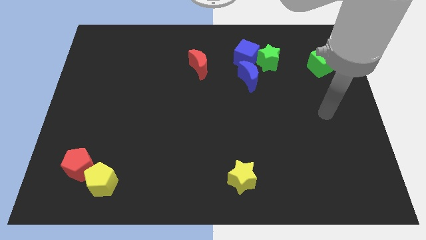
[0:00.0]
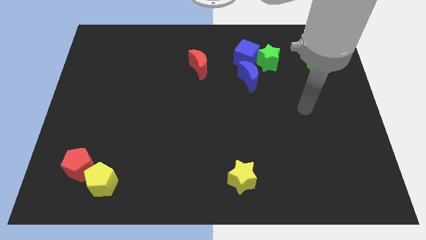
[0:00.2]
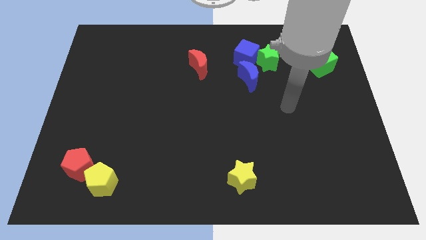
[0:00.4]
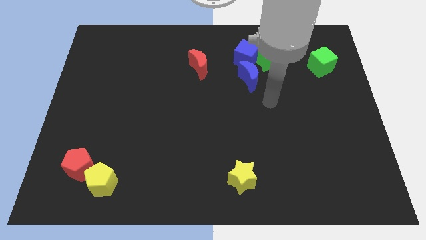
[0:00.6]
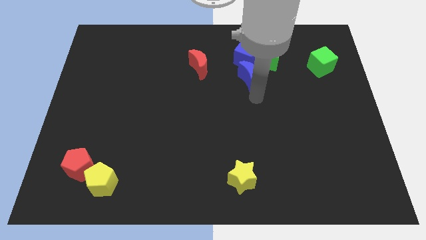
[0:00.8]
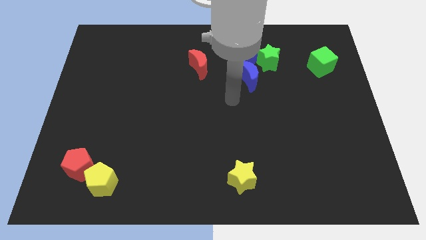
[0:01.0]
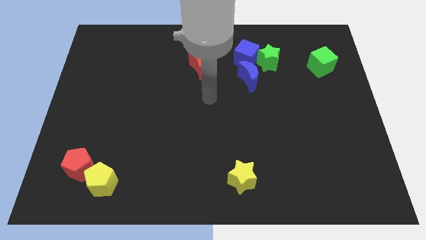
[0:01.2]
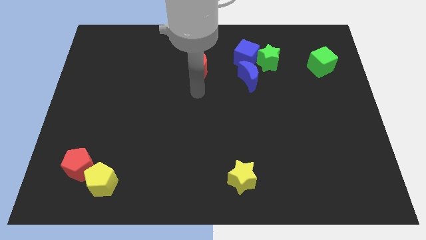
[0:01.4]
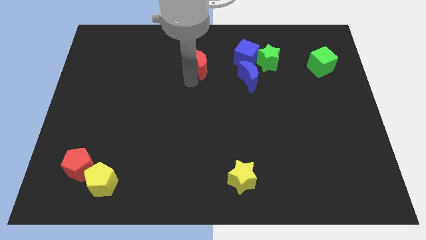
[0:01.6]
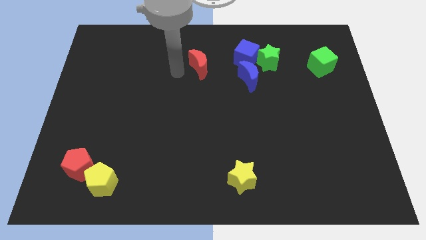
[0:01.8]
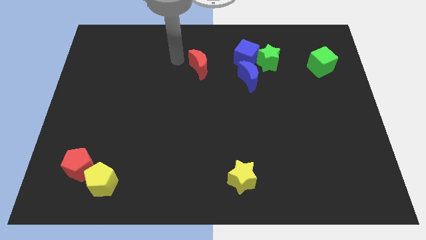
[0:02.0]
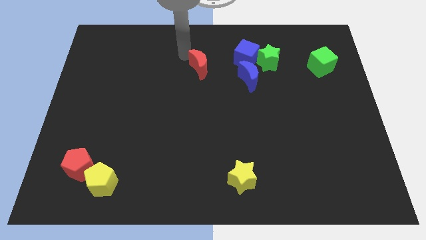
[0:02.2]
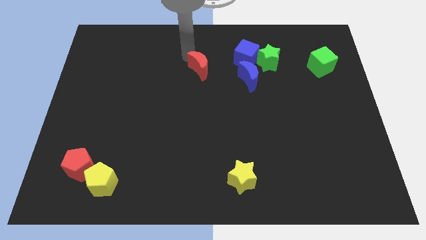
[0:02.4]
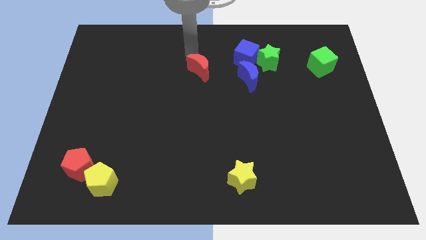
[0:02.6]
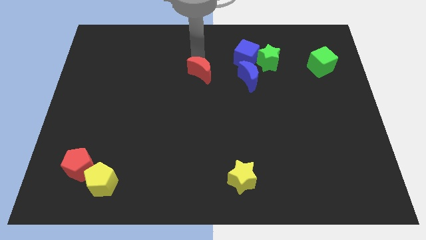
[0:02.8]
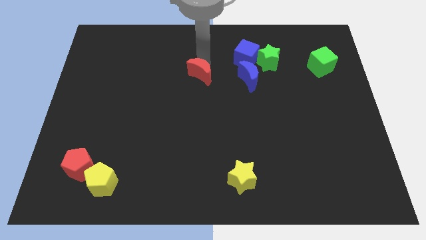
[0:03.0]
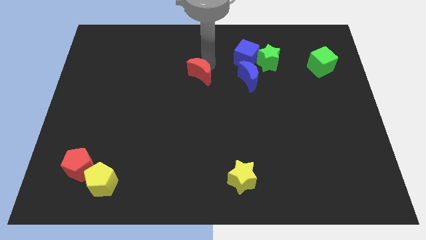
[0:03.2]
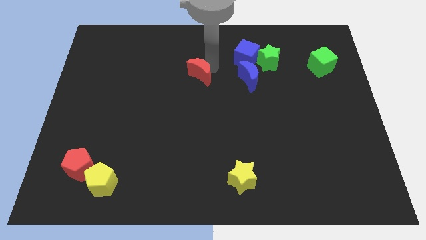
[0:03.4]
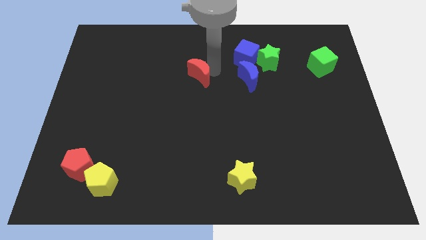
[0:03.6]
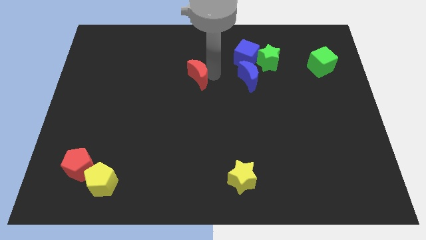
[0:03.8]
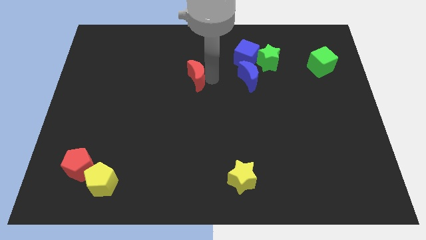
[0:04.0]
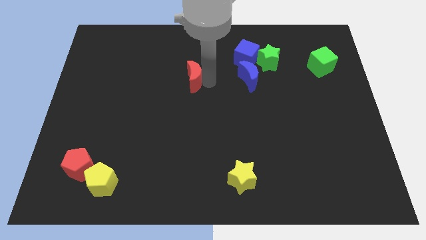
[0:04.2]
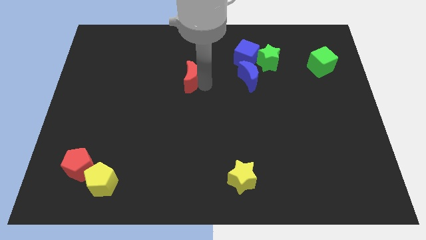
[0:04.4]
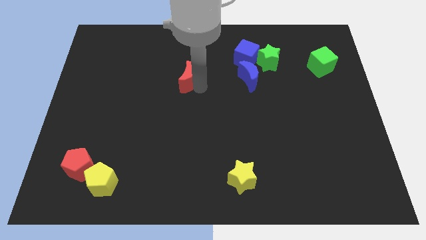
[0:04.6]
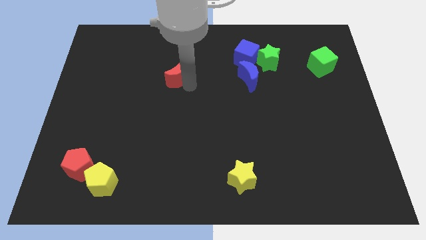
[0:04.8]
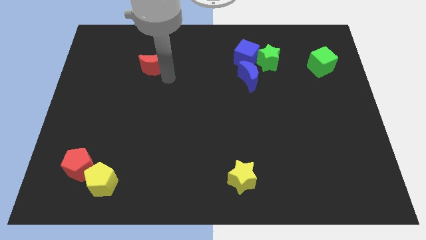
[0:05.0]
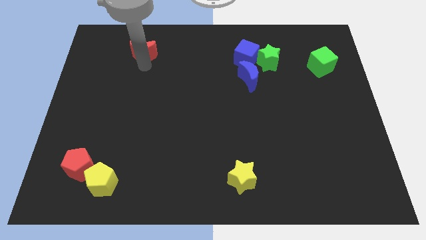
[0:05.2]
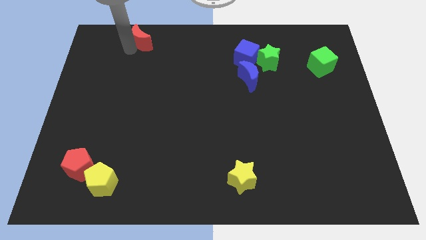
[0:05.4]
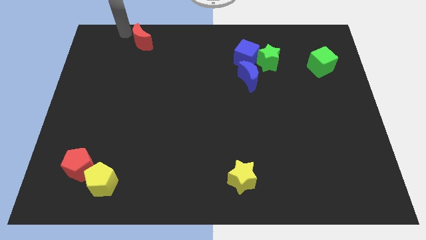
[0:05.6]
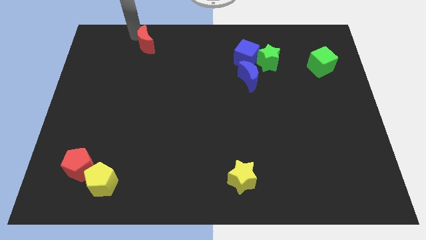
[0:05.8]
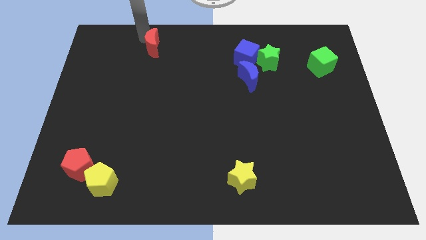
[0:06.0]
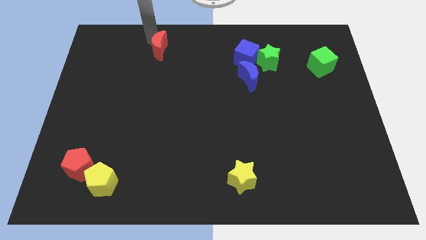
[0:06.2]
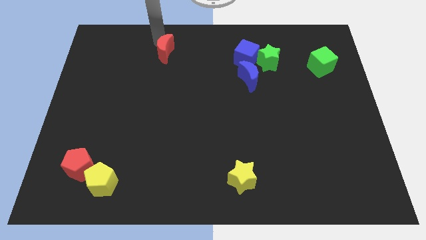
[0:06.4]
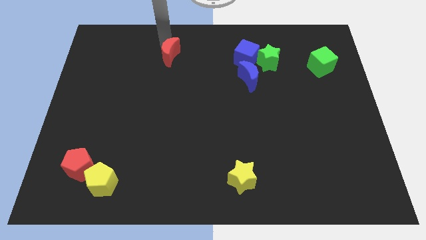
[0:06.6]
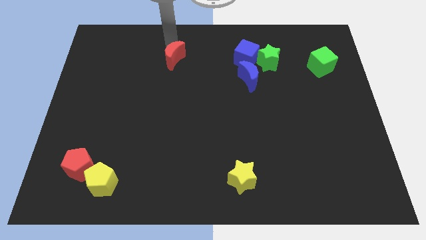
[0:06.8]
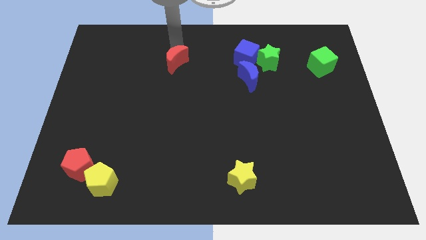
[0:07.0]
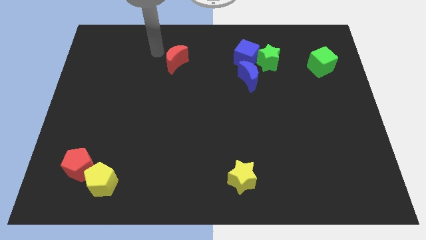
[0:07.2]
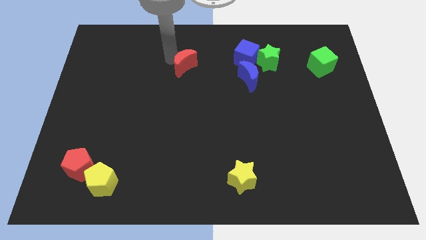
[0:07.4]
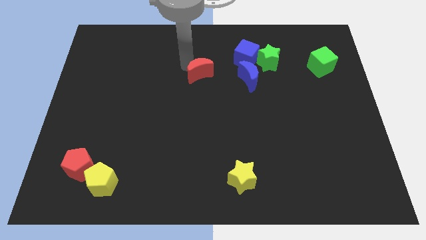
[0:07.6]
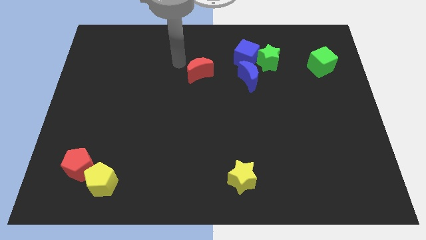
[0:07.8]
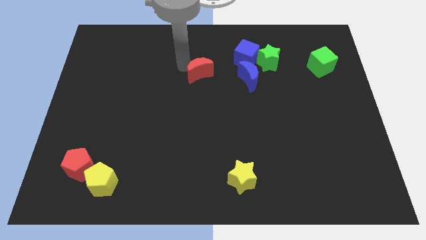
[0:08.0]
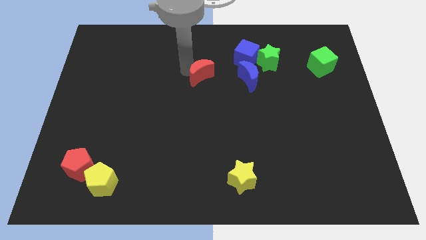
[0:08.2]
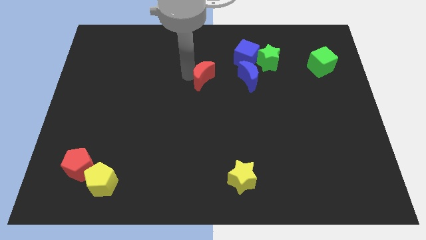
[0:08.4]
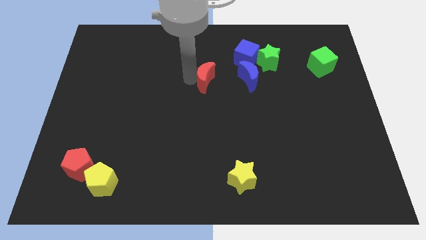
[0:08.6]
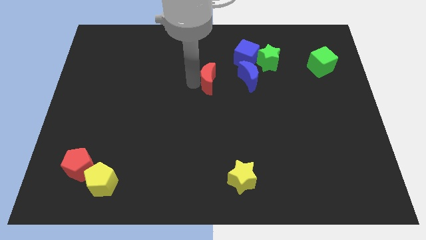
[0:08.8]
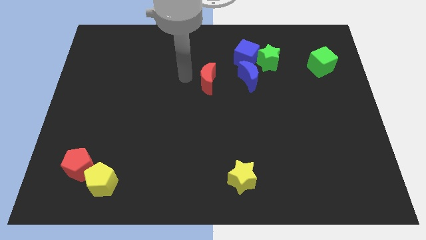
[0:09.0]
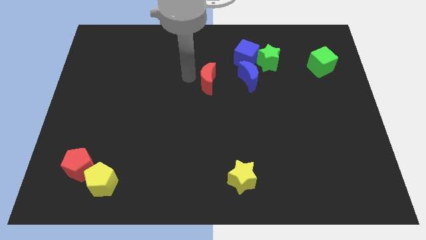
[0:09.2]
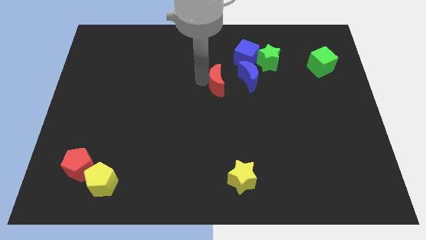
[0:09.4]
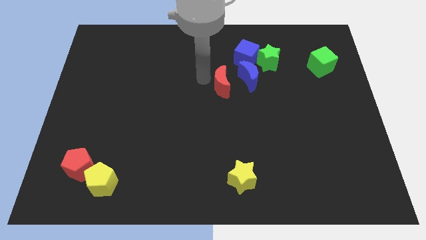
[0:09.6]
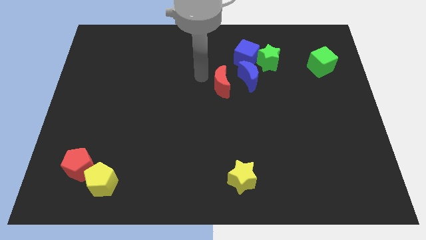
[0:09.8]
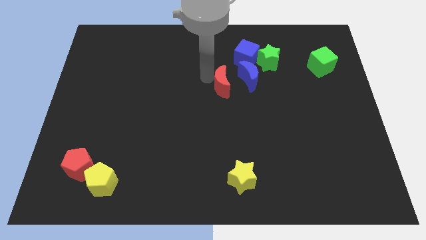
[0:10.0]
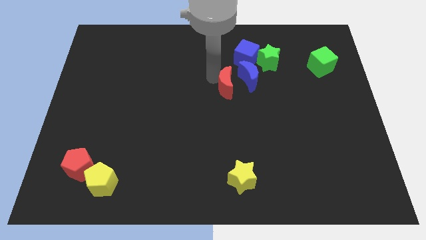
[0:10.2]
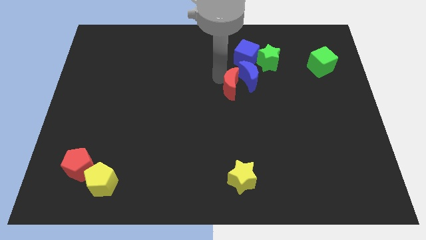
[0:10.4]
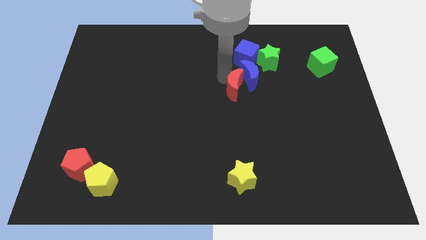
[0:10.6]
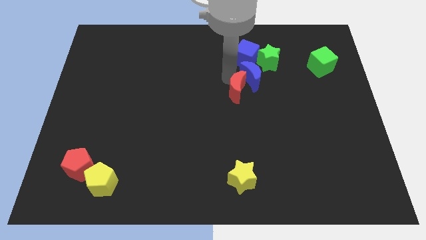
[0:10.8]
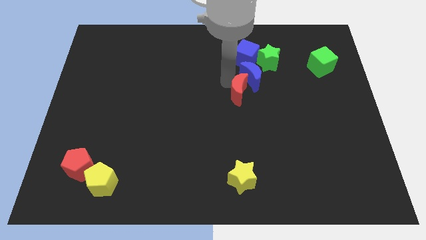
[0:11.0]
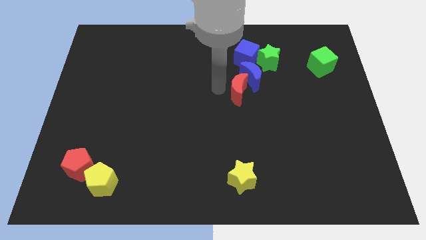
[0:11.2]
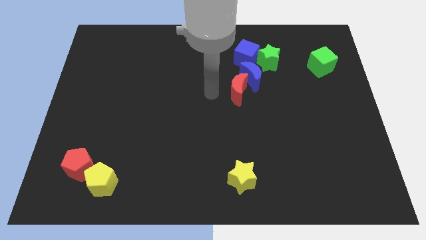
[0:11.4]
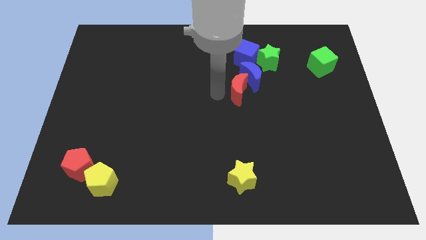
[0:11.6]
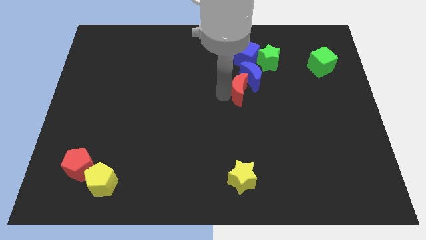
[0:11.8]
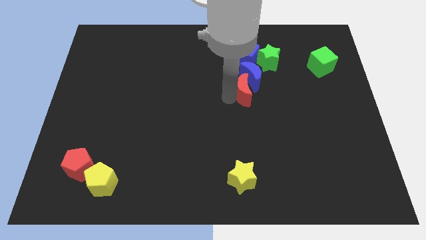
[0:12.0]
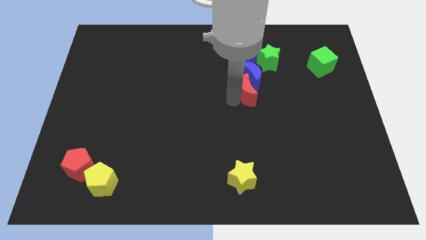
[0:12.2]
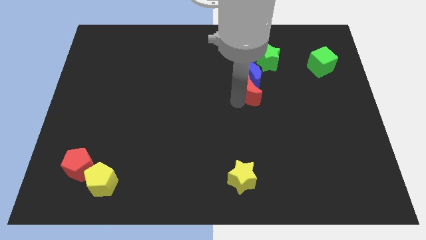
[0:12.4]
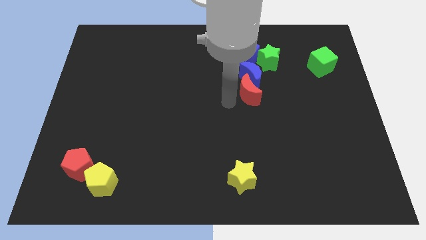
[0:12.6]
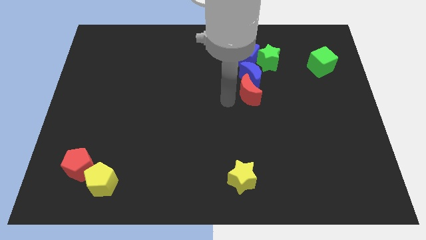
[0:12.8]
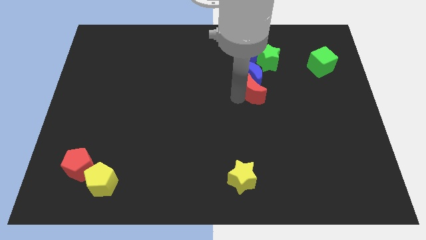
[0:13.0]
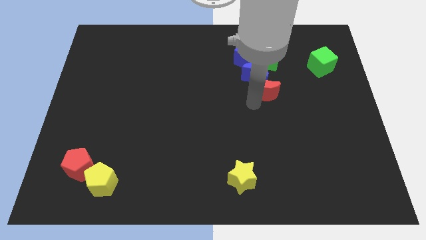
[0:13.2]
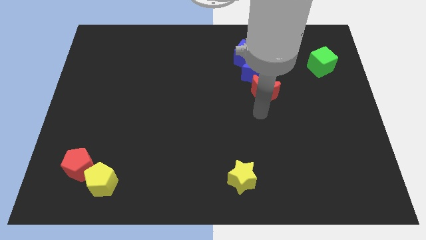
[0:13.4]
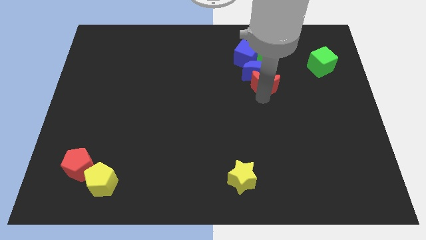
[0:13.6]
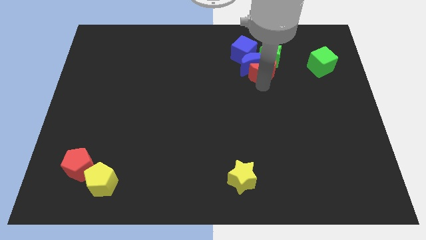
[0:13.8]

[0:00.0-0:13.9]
slide the red moon close to the green star
